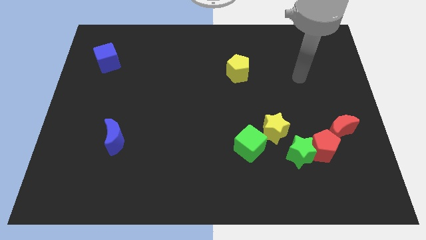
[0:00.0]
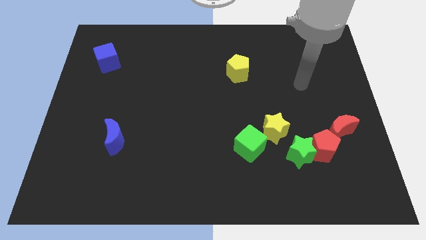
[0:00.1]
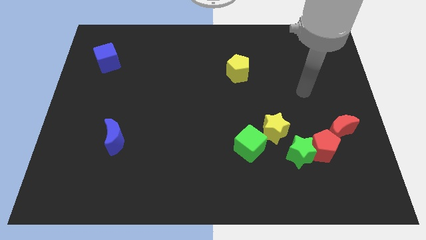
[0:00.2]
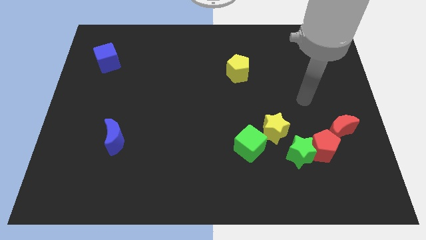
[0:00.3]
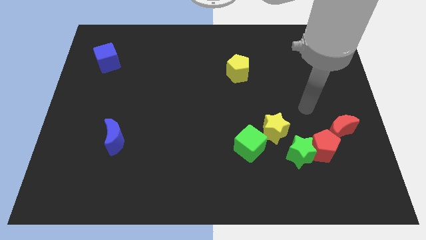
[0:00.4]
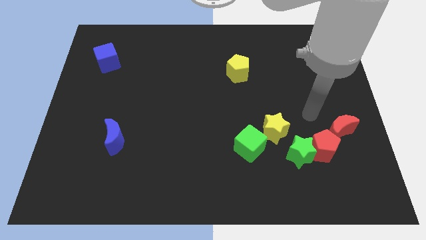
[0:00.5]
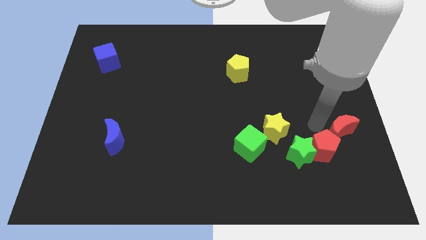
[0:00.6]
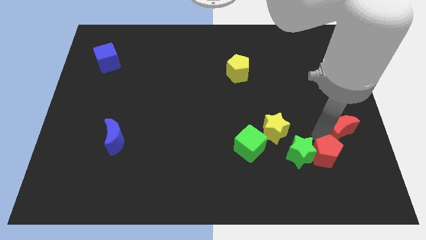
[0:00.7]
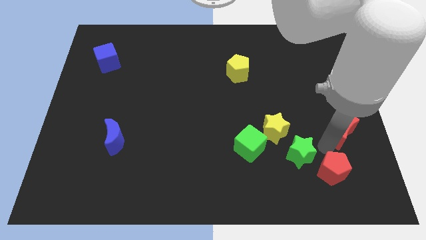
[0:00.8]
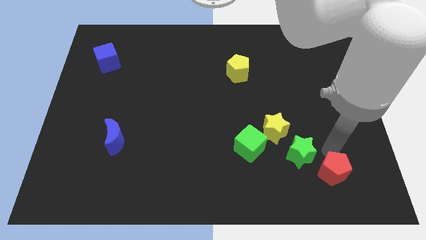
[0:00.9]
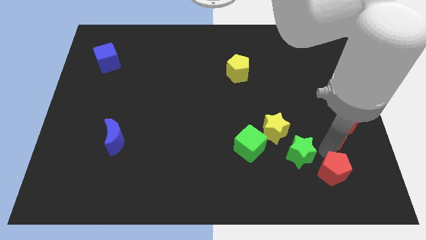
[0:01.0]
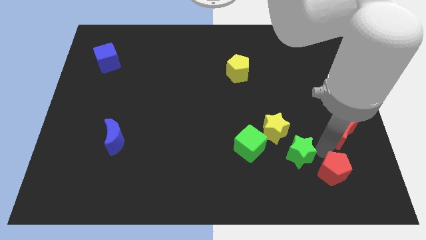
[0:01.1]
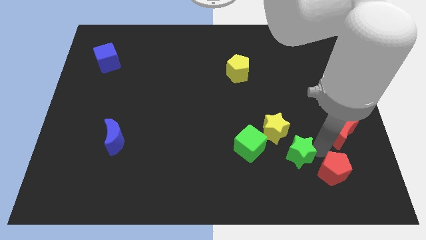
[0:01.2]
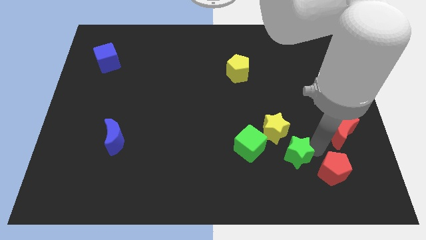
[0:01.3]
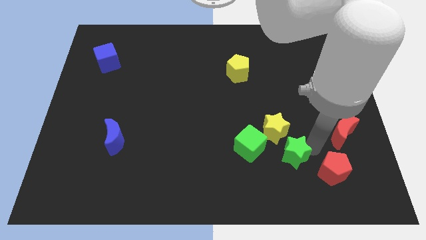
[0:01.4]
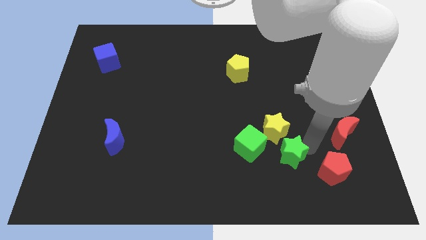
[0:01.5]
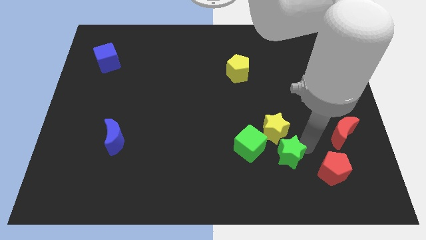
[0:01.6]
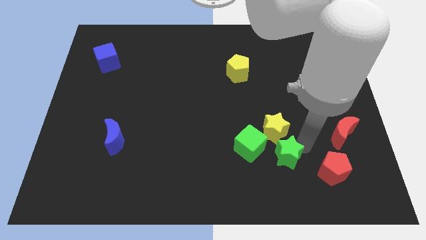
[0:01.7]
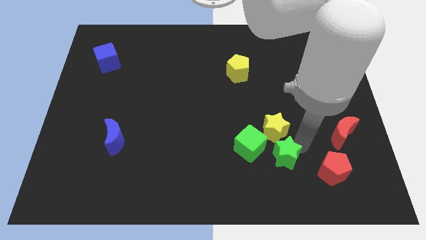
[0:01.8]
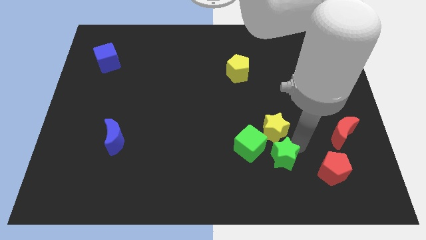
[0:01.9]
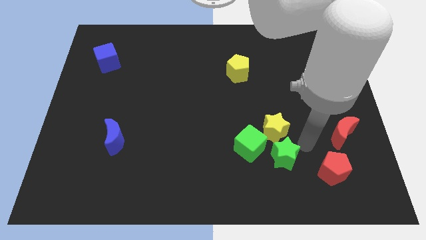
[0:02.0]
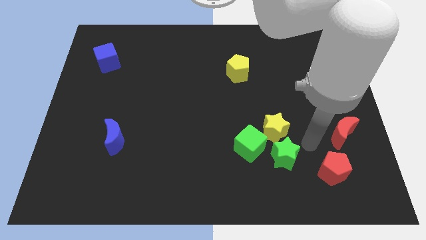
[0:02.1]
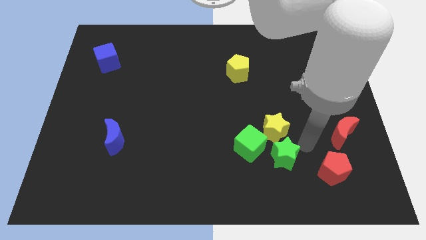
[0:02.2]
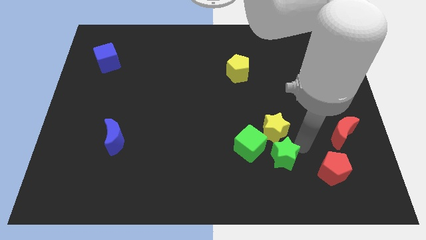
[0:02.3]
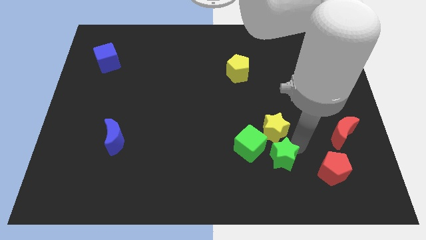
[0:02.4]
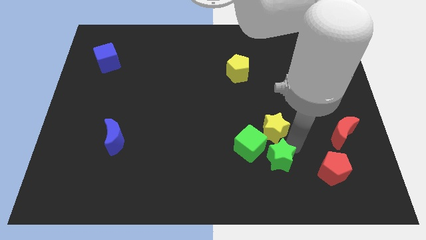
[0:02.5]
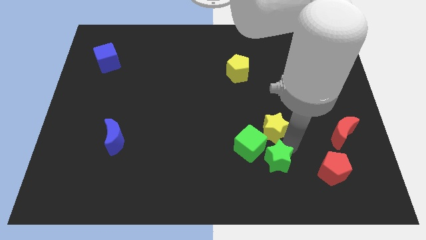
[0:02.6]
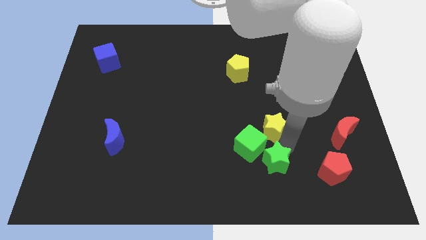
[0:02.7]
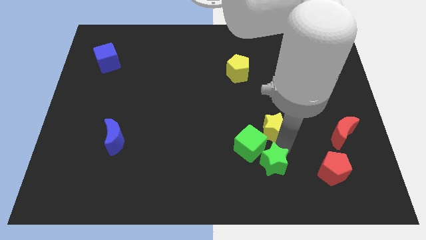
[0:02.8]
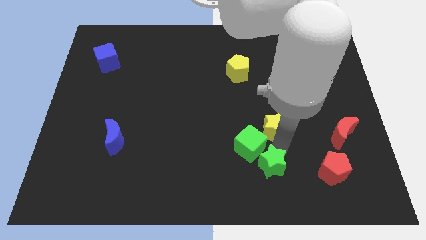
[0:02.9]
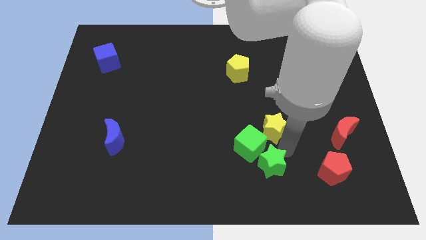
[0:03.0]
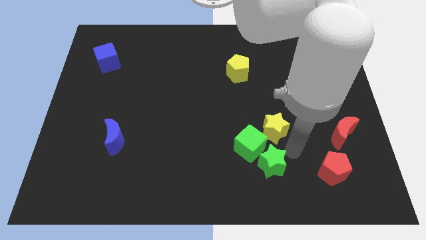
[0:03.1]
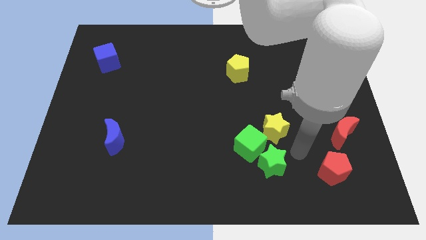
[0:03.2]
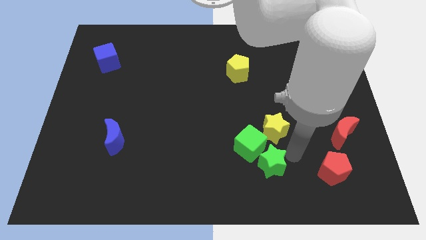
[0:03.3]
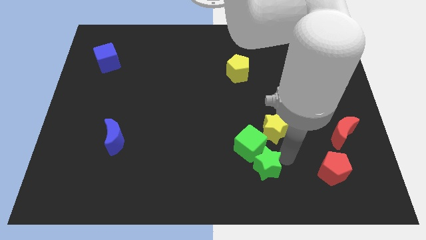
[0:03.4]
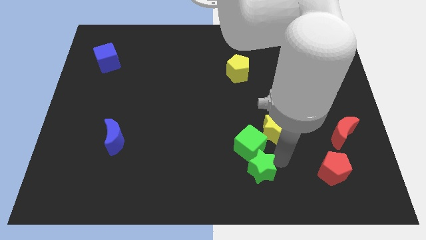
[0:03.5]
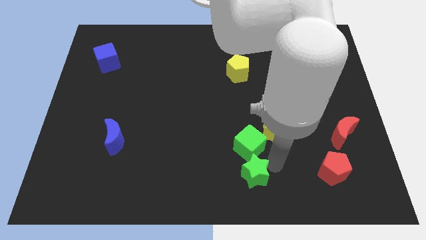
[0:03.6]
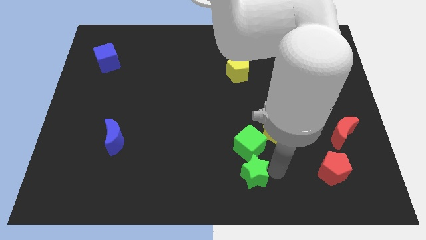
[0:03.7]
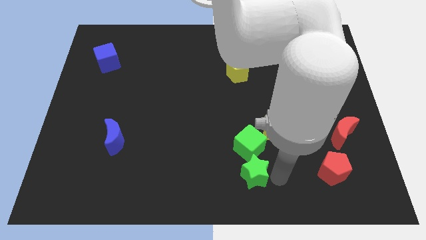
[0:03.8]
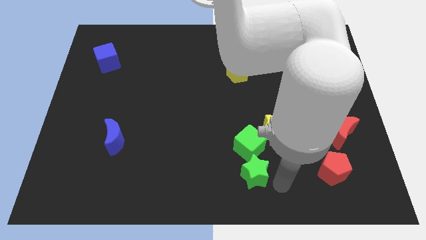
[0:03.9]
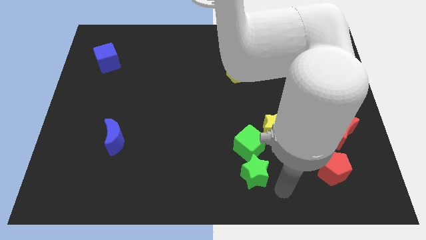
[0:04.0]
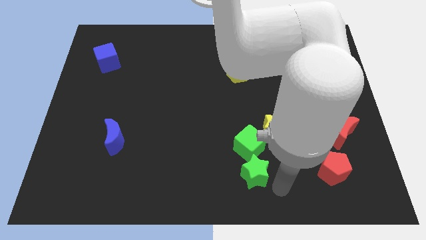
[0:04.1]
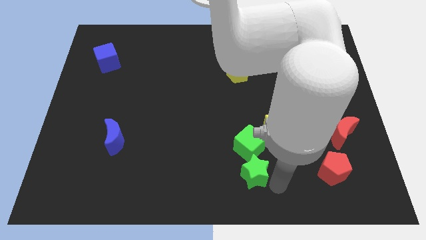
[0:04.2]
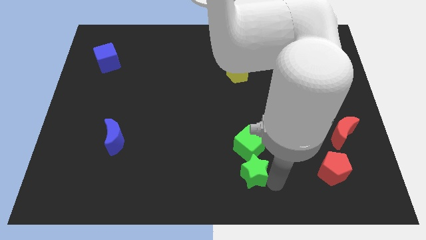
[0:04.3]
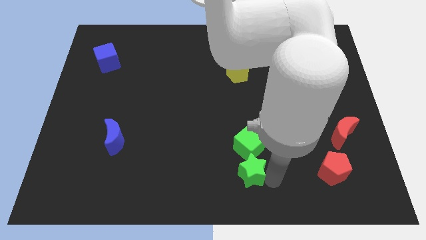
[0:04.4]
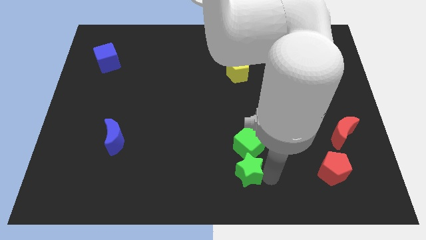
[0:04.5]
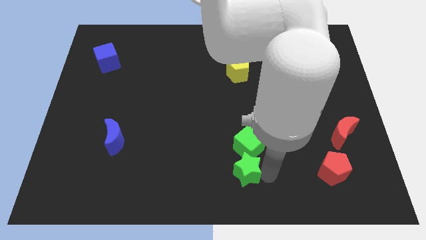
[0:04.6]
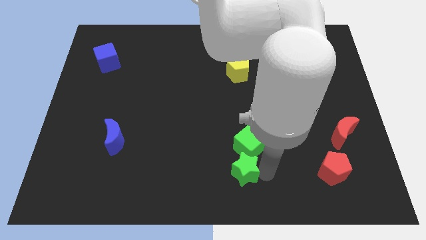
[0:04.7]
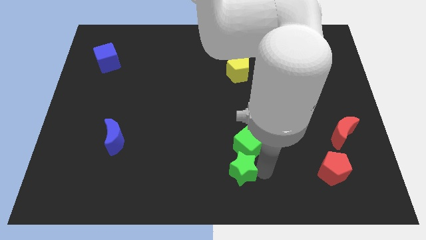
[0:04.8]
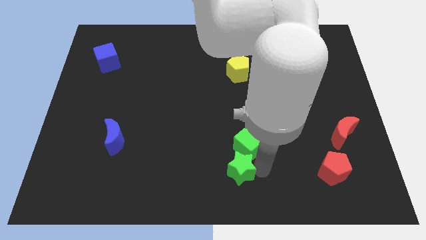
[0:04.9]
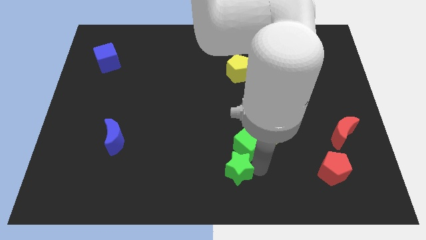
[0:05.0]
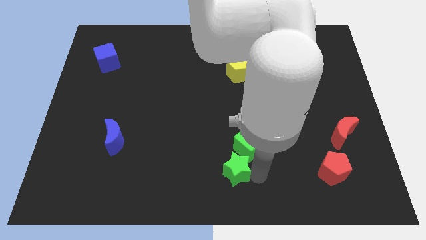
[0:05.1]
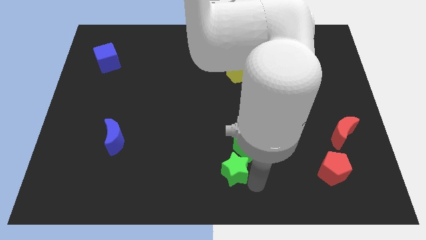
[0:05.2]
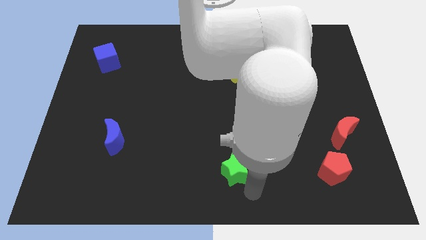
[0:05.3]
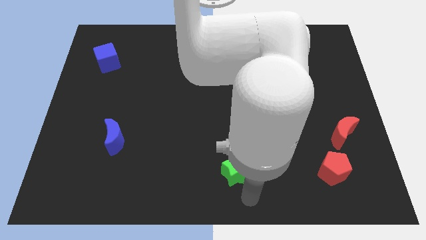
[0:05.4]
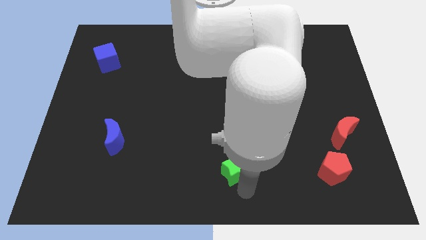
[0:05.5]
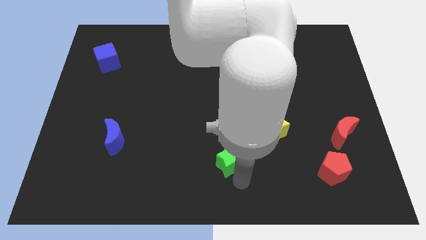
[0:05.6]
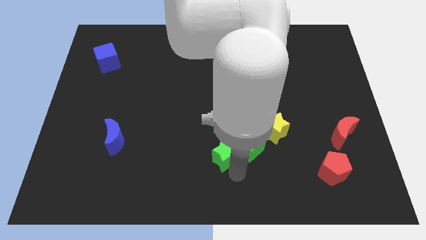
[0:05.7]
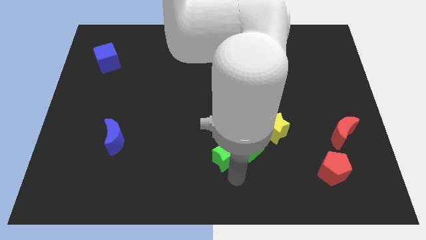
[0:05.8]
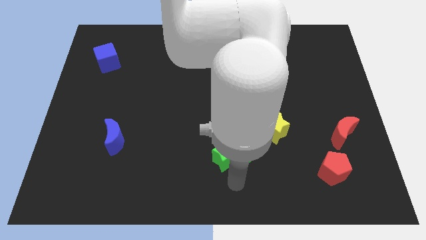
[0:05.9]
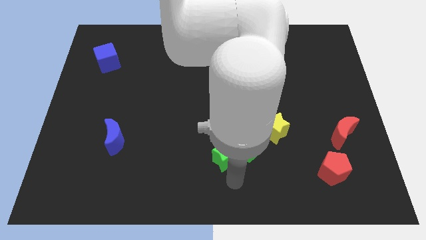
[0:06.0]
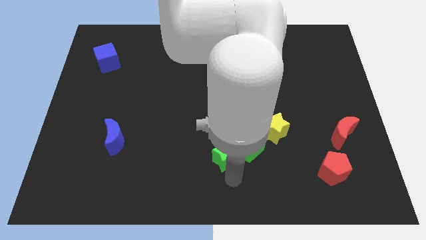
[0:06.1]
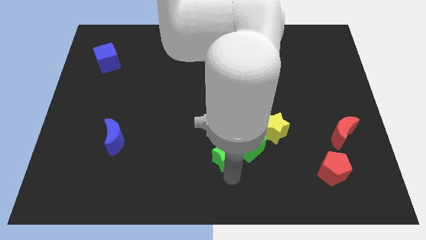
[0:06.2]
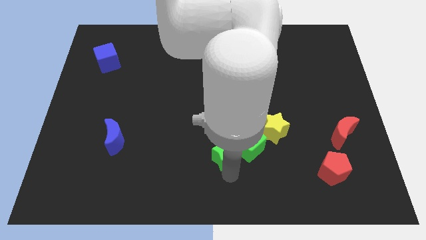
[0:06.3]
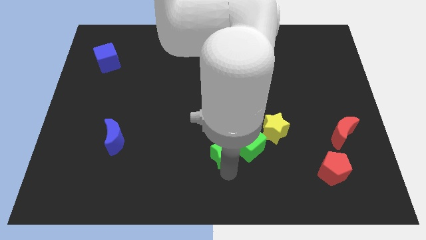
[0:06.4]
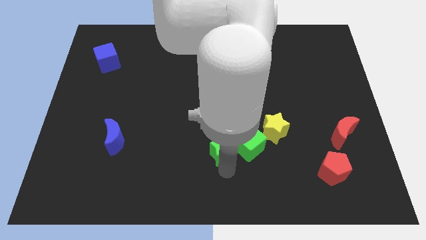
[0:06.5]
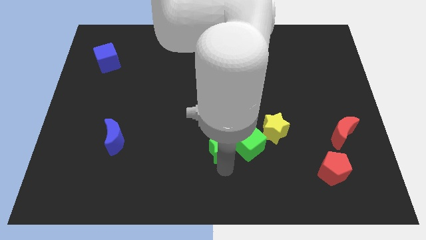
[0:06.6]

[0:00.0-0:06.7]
slide the green star to the top left of the green cube
